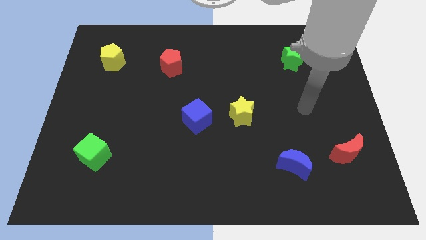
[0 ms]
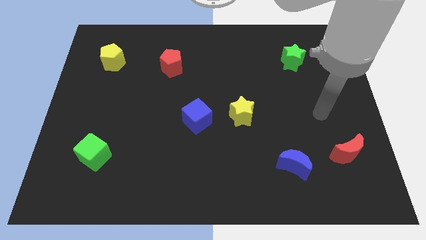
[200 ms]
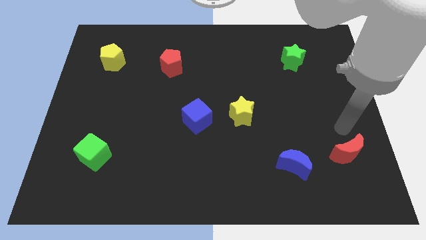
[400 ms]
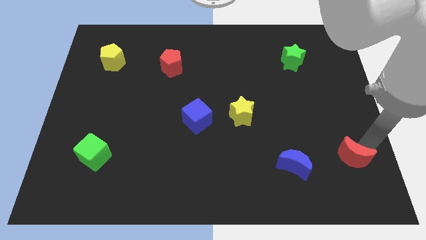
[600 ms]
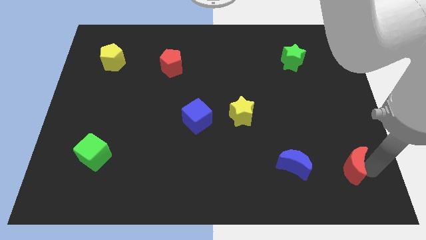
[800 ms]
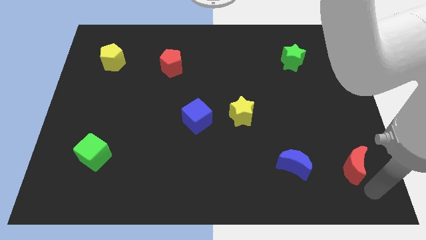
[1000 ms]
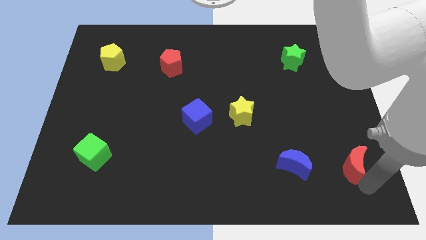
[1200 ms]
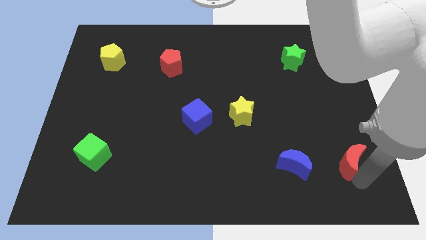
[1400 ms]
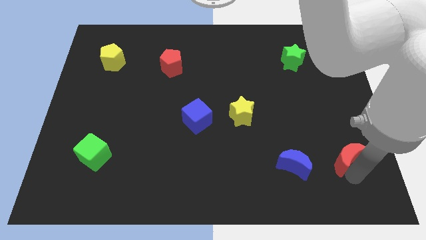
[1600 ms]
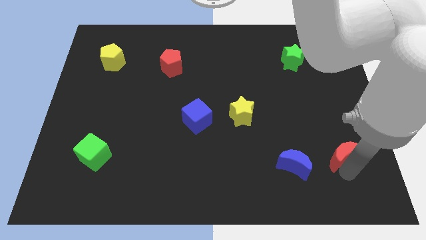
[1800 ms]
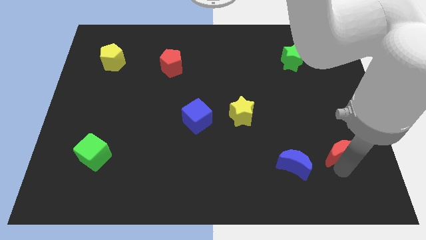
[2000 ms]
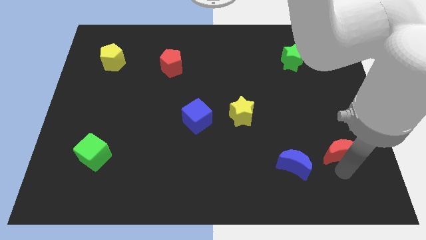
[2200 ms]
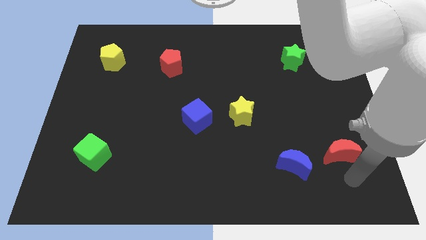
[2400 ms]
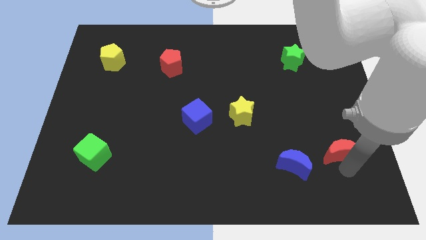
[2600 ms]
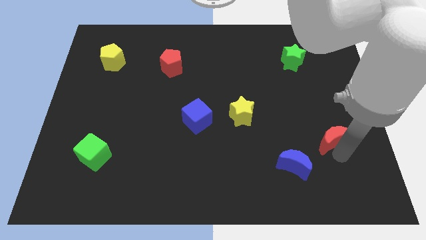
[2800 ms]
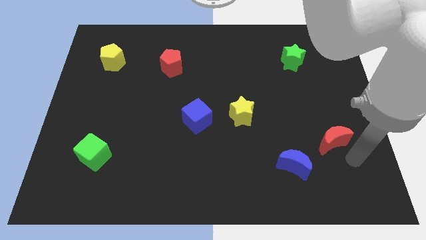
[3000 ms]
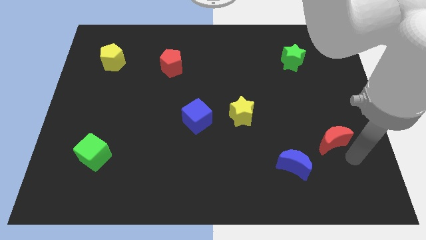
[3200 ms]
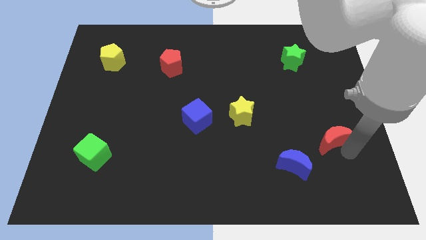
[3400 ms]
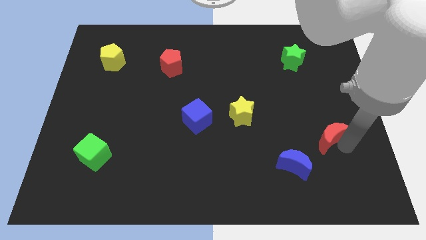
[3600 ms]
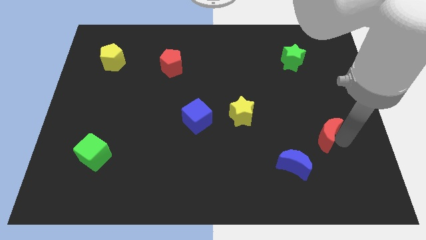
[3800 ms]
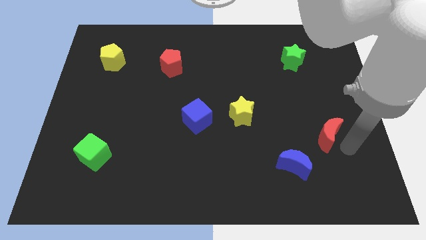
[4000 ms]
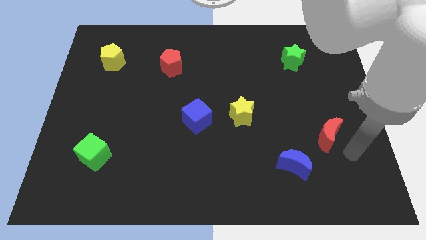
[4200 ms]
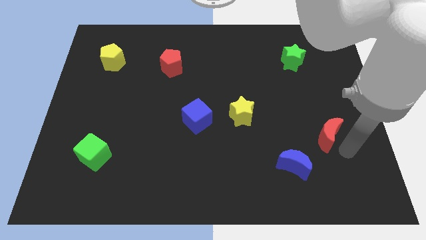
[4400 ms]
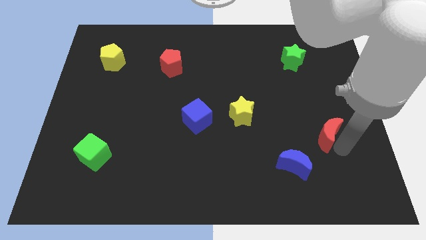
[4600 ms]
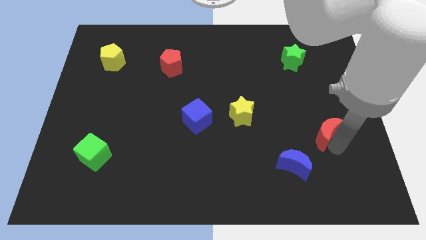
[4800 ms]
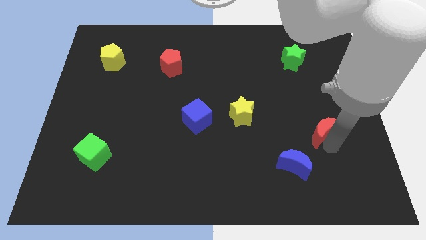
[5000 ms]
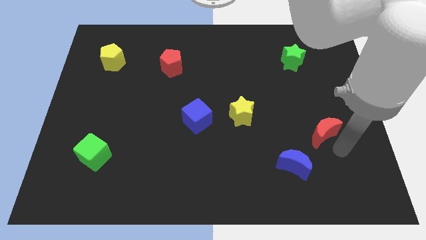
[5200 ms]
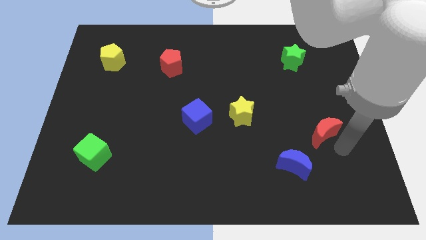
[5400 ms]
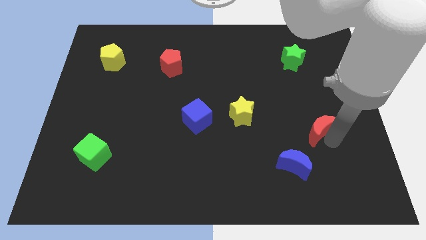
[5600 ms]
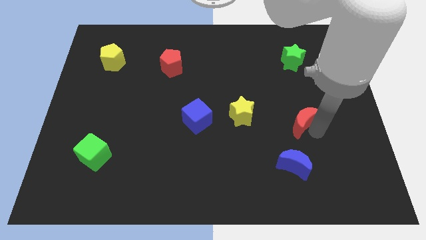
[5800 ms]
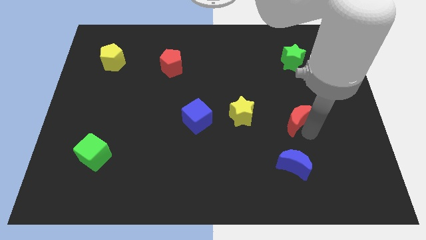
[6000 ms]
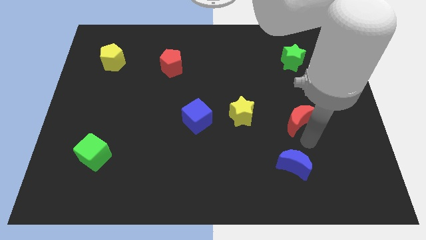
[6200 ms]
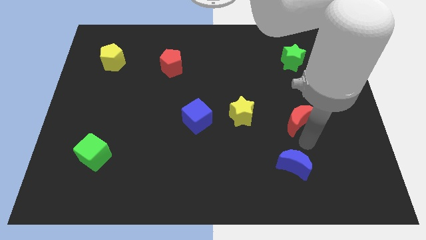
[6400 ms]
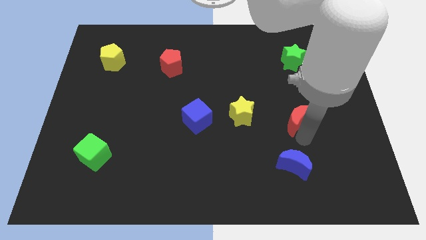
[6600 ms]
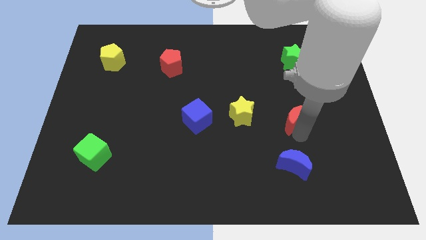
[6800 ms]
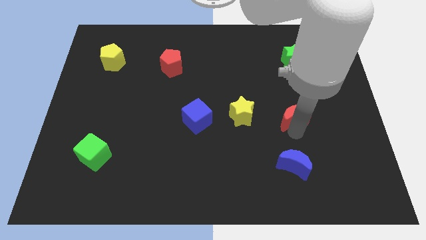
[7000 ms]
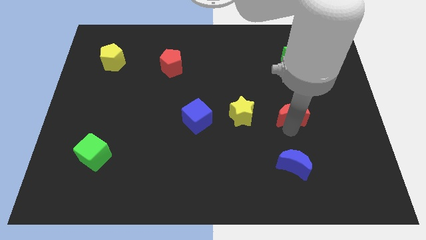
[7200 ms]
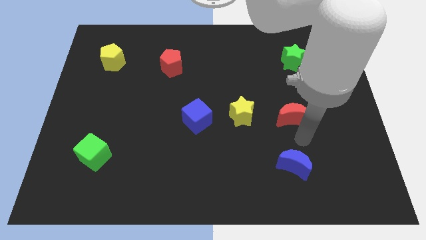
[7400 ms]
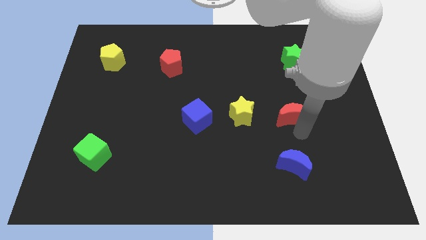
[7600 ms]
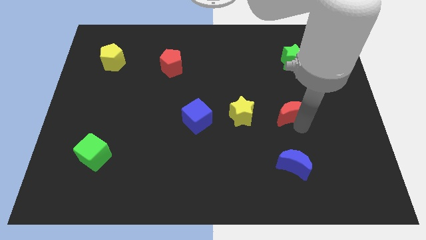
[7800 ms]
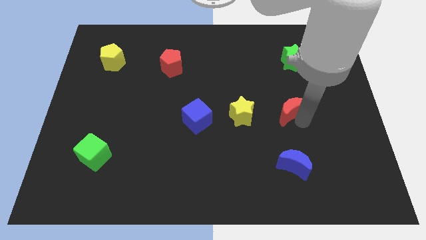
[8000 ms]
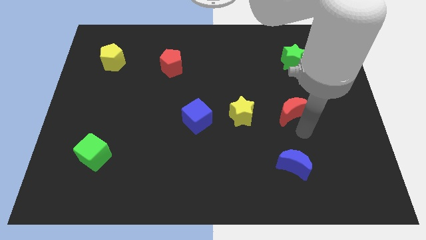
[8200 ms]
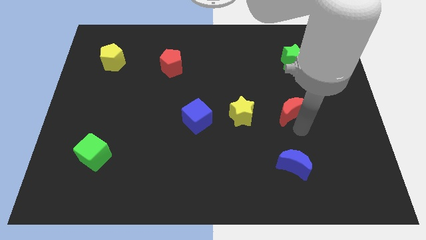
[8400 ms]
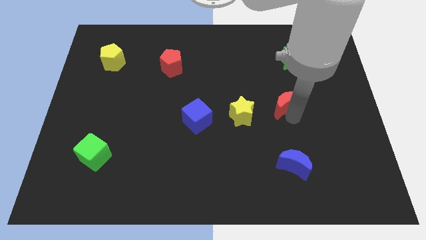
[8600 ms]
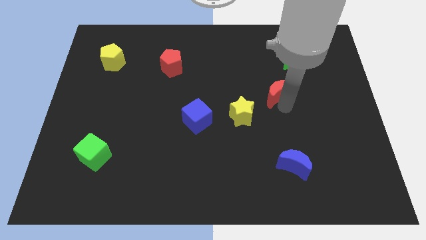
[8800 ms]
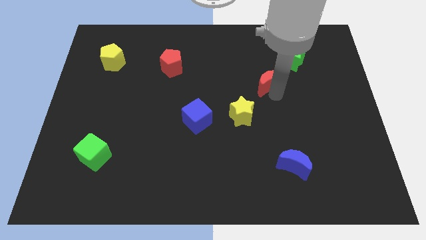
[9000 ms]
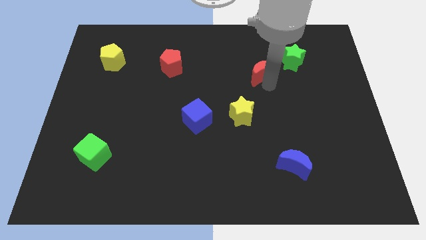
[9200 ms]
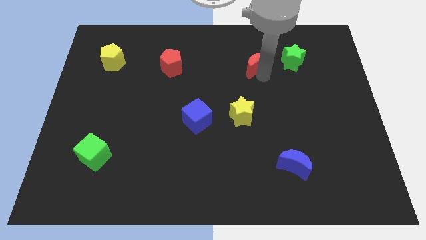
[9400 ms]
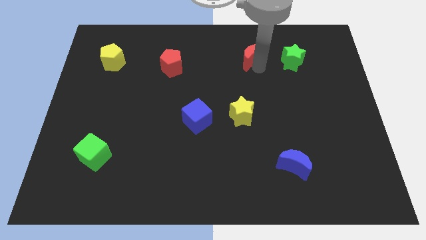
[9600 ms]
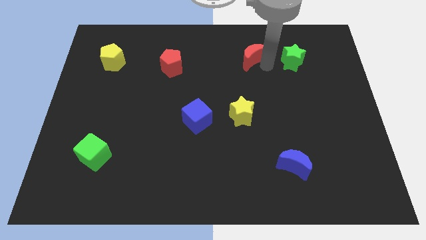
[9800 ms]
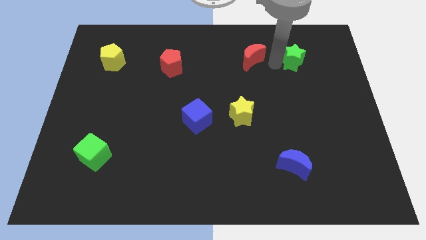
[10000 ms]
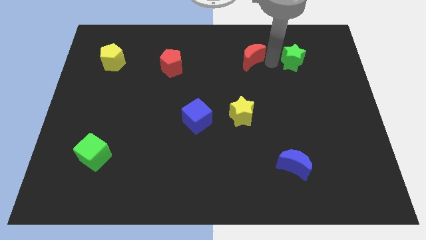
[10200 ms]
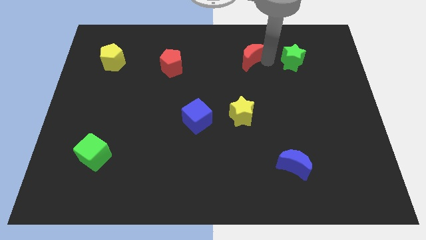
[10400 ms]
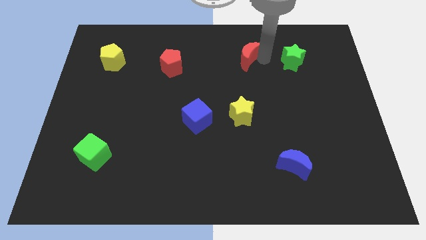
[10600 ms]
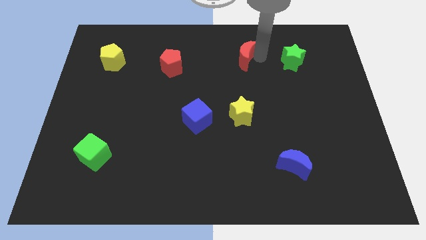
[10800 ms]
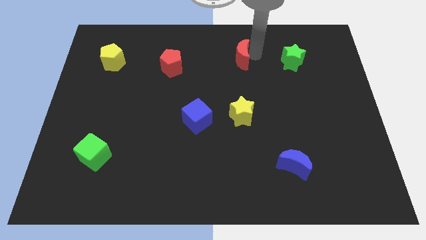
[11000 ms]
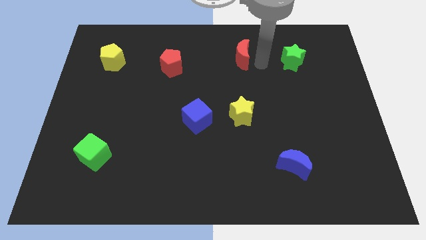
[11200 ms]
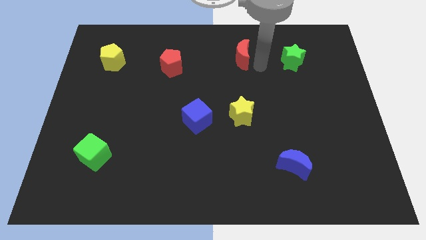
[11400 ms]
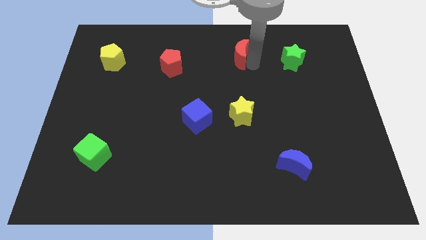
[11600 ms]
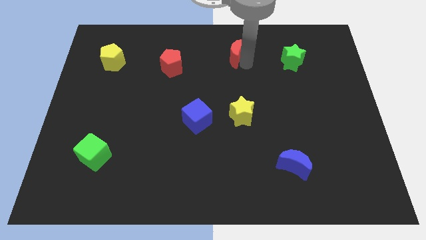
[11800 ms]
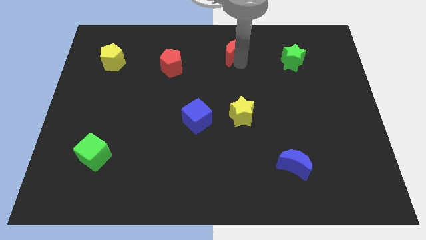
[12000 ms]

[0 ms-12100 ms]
push the red moon to the top side

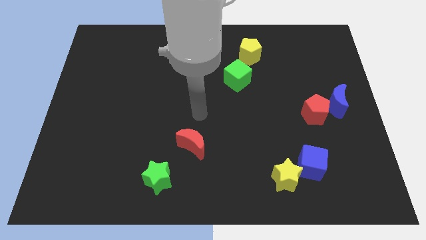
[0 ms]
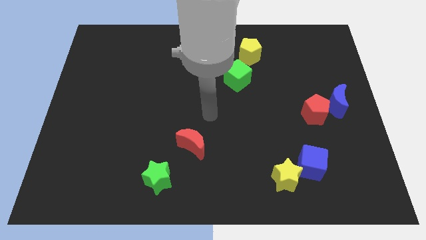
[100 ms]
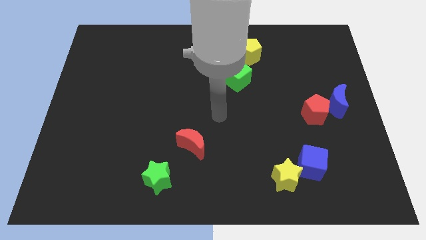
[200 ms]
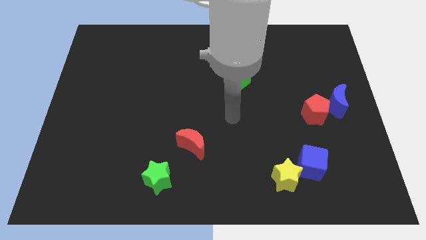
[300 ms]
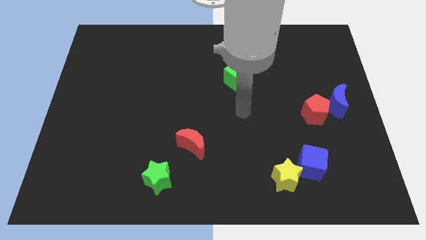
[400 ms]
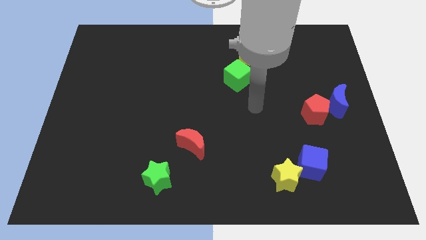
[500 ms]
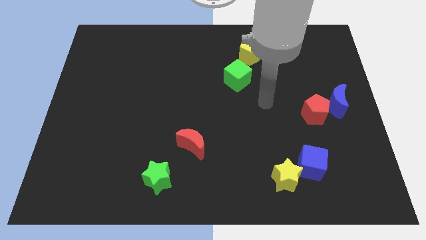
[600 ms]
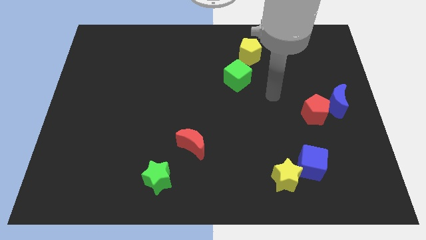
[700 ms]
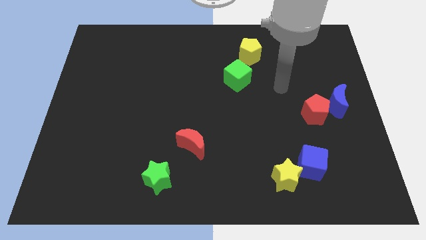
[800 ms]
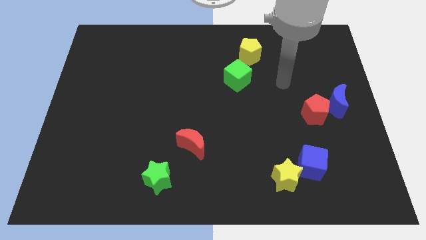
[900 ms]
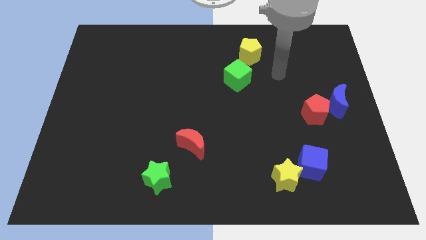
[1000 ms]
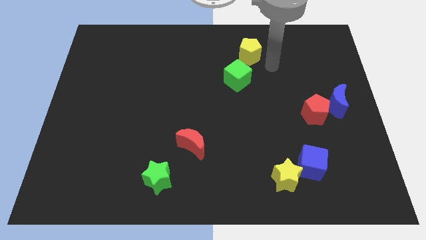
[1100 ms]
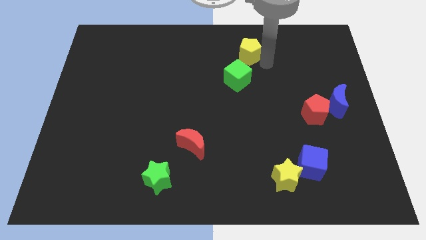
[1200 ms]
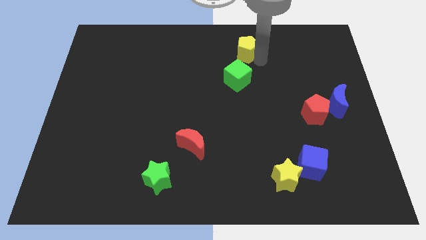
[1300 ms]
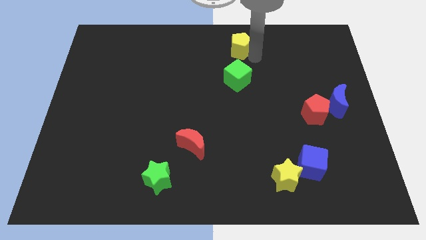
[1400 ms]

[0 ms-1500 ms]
move the yellow pentagon to the top
